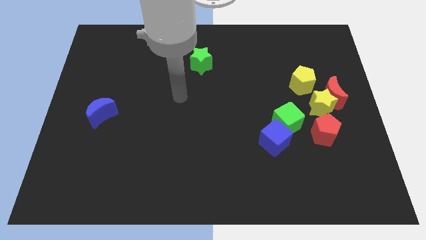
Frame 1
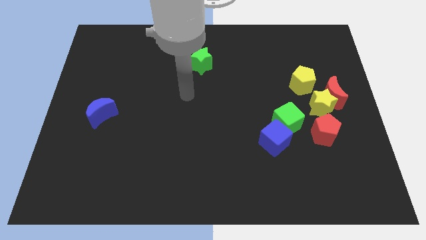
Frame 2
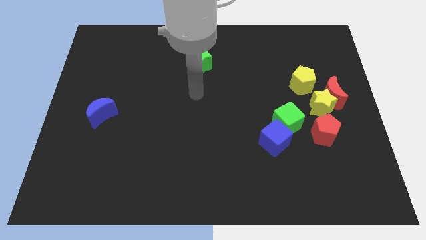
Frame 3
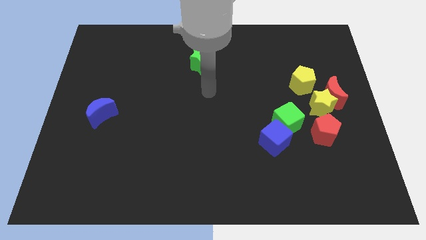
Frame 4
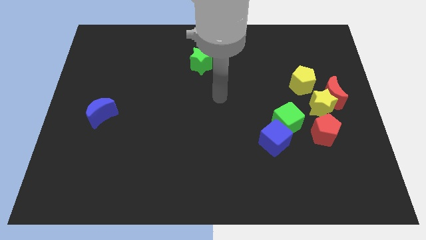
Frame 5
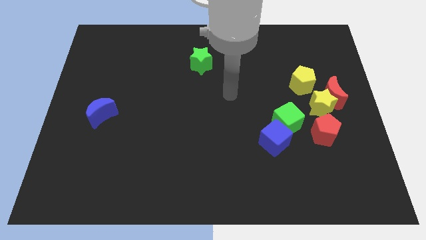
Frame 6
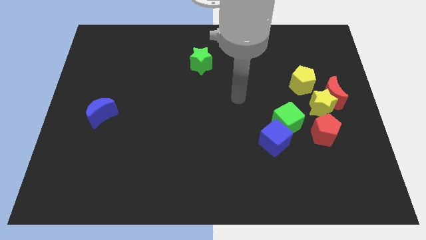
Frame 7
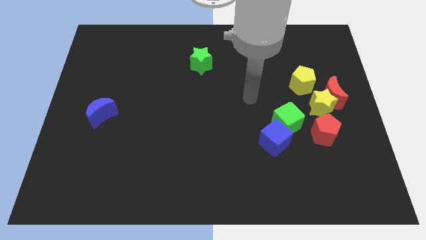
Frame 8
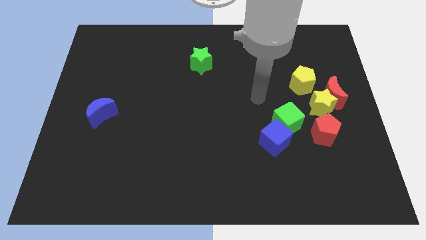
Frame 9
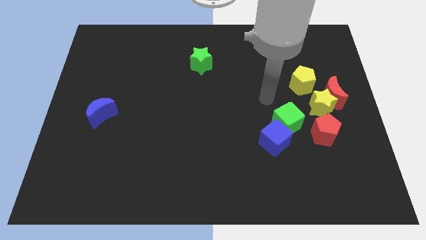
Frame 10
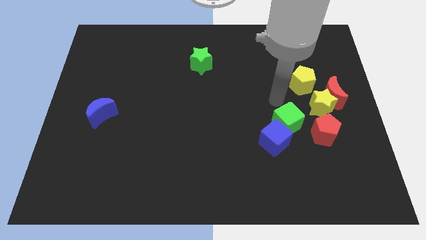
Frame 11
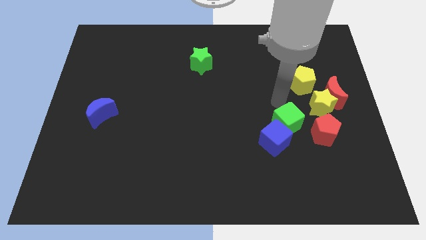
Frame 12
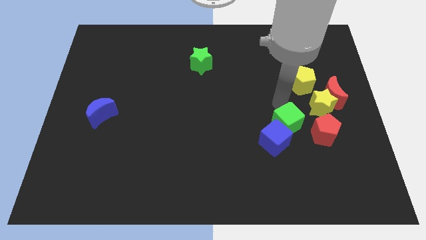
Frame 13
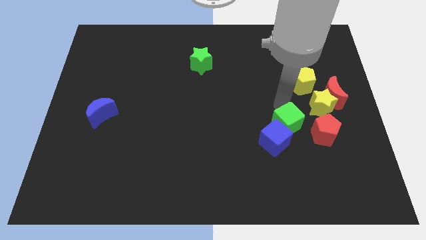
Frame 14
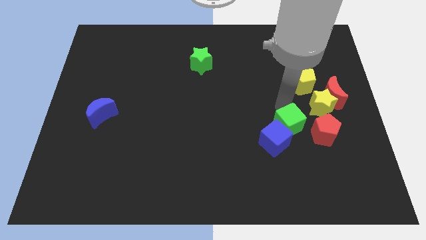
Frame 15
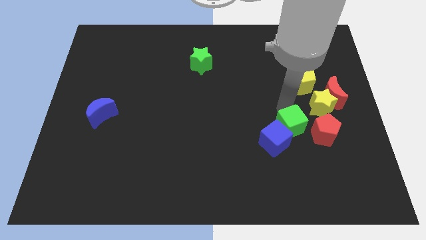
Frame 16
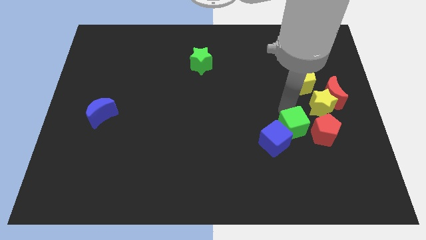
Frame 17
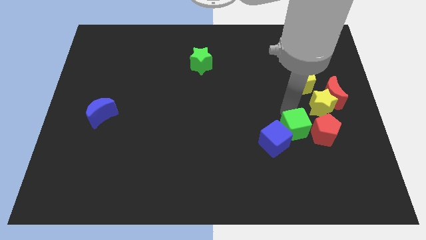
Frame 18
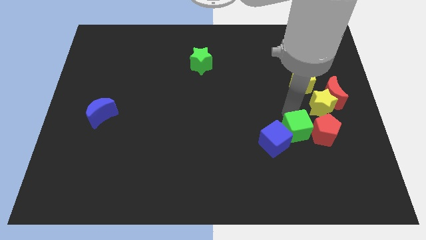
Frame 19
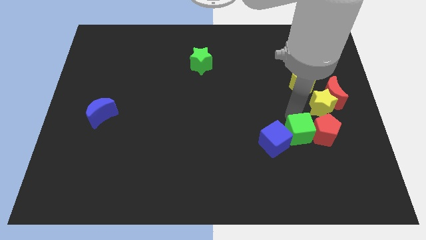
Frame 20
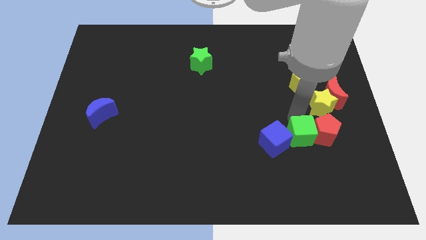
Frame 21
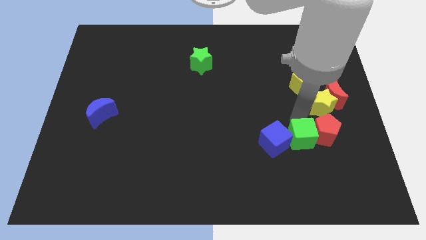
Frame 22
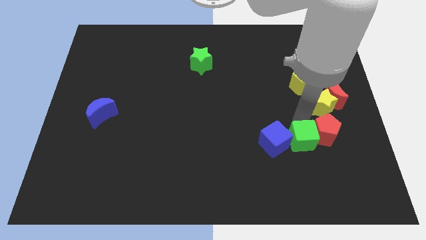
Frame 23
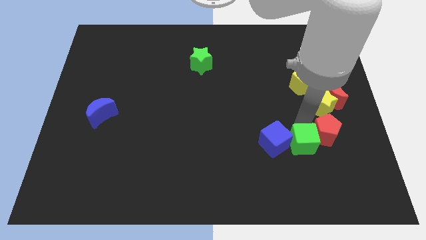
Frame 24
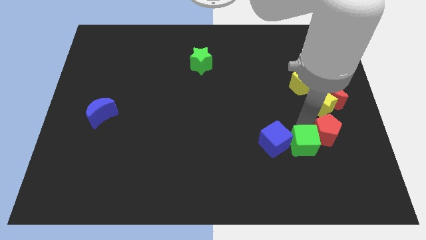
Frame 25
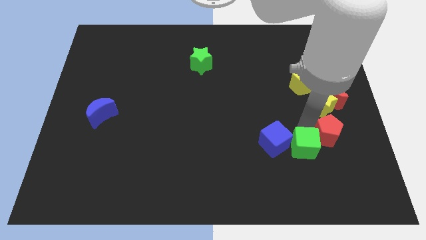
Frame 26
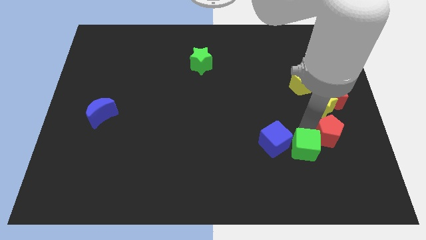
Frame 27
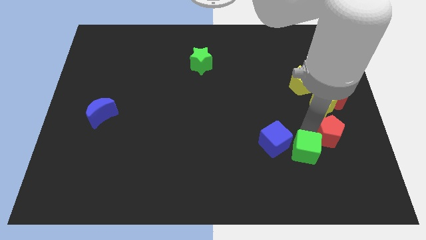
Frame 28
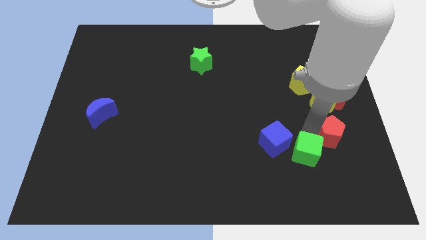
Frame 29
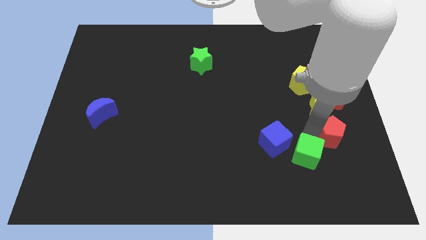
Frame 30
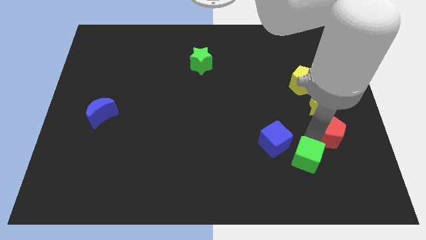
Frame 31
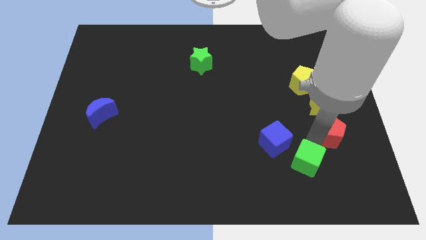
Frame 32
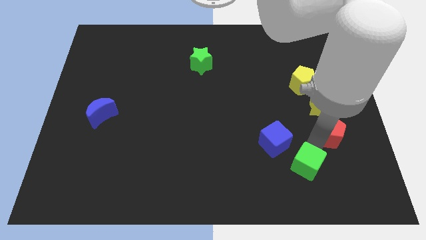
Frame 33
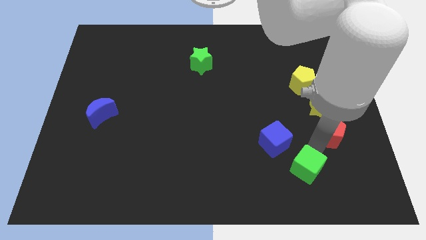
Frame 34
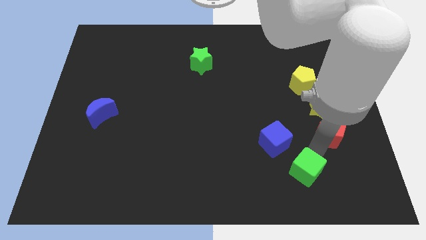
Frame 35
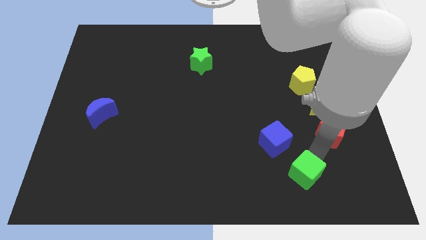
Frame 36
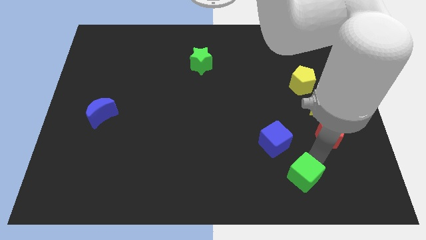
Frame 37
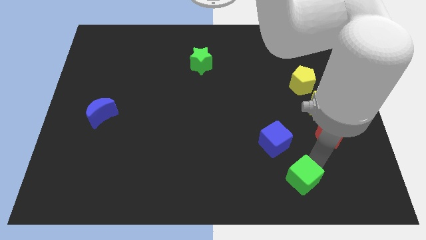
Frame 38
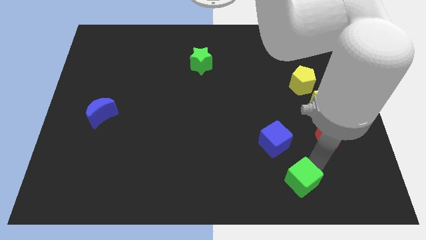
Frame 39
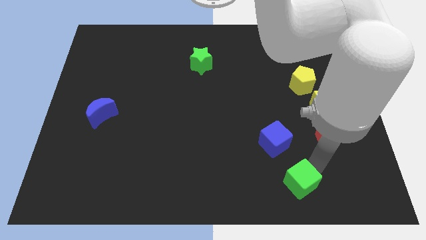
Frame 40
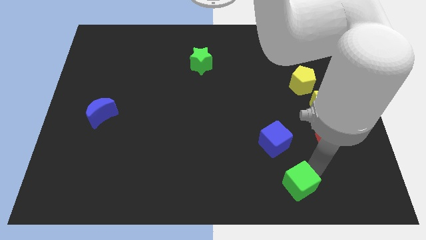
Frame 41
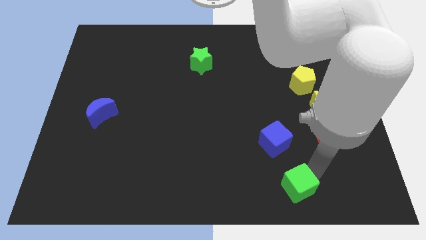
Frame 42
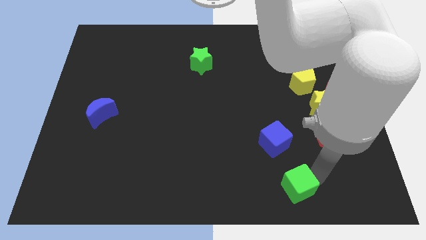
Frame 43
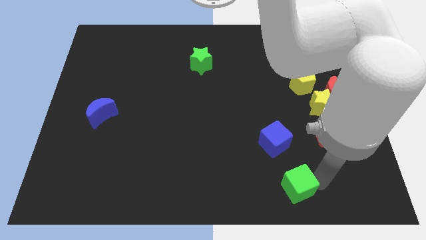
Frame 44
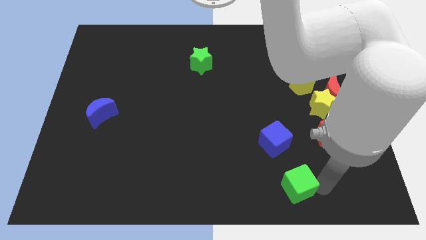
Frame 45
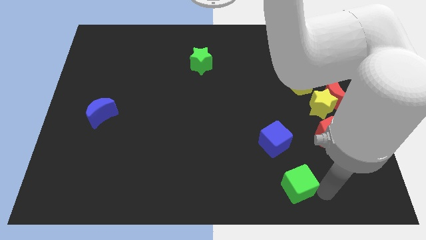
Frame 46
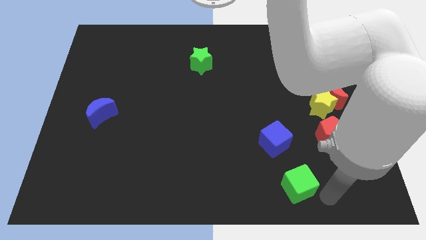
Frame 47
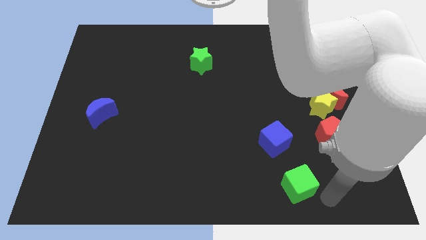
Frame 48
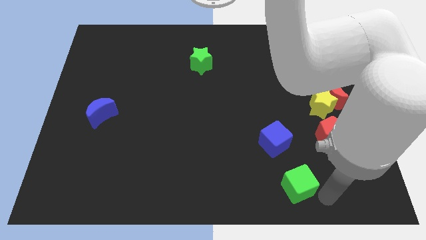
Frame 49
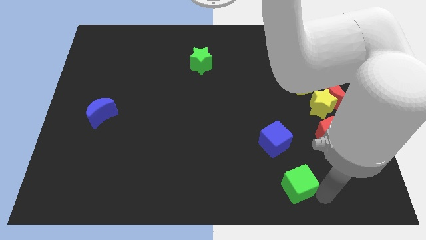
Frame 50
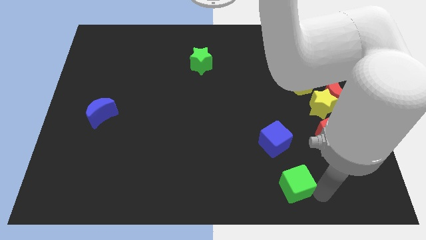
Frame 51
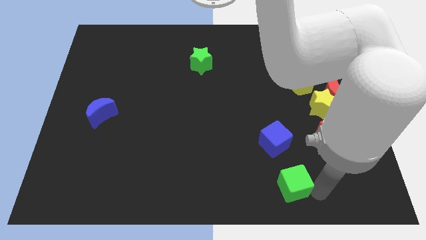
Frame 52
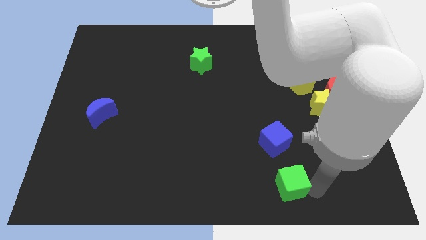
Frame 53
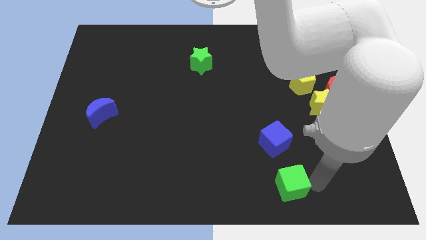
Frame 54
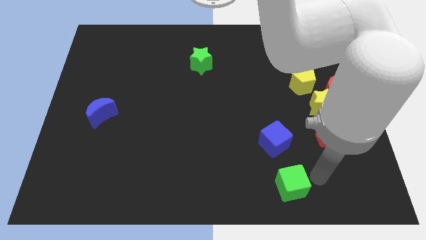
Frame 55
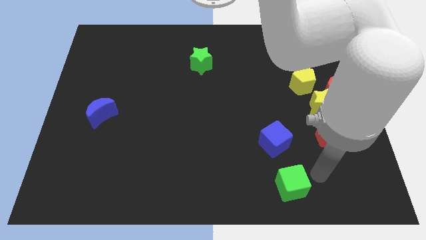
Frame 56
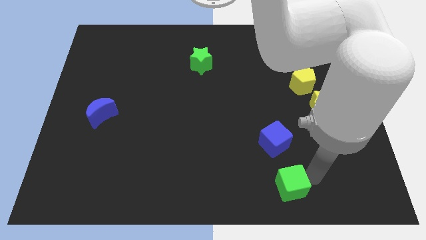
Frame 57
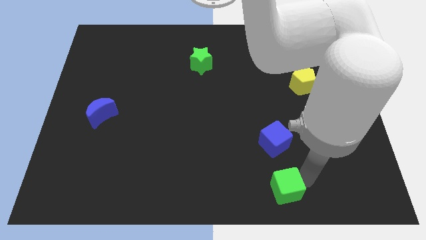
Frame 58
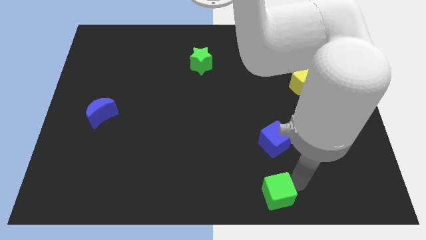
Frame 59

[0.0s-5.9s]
put the green cube to the bottom side

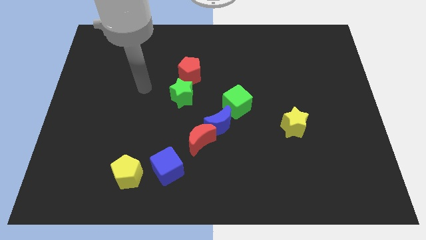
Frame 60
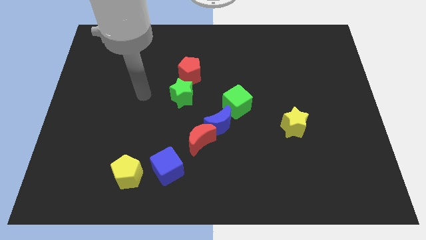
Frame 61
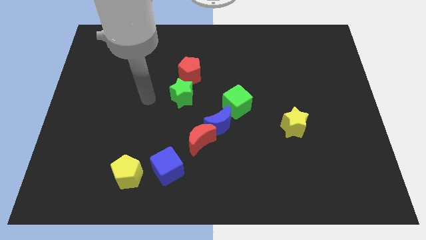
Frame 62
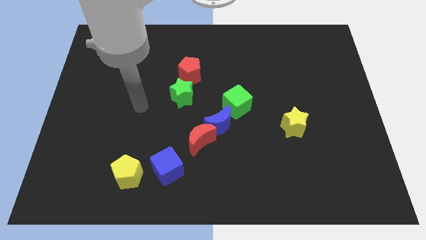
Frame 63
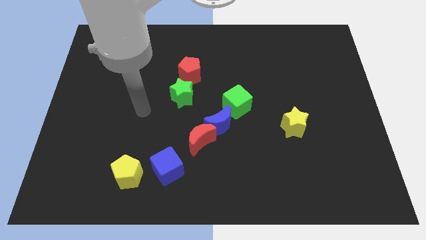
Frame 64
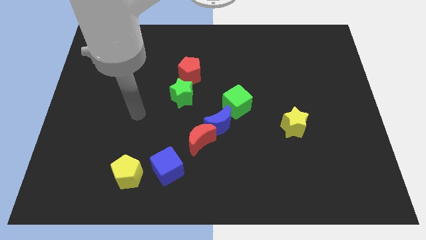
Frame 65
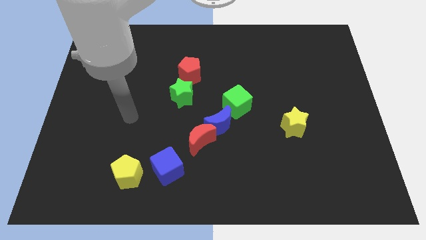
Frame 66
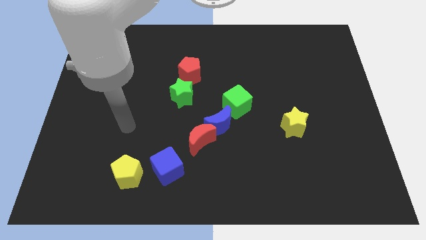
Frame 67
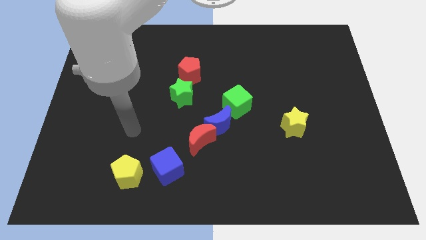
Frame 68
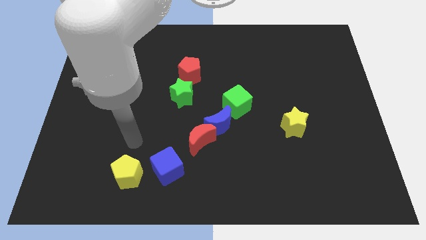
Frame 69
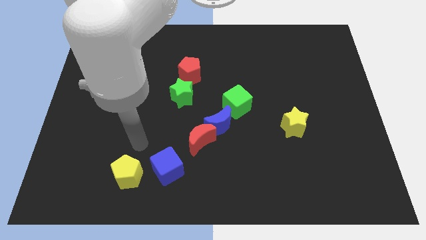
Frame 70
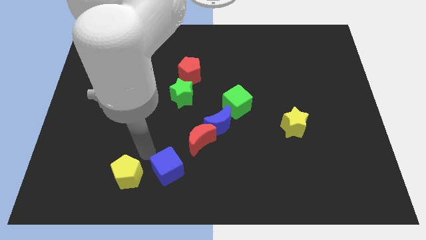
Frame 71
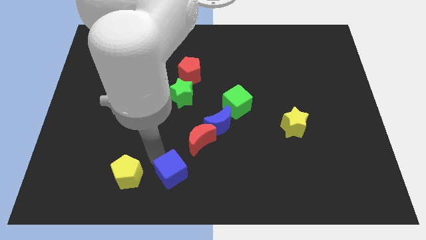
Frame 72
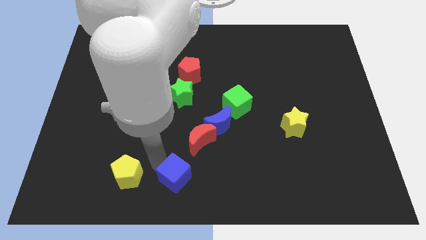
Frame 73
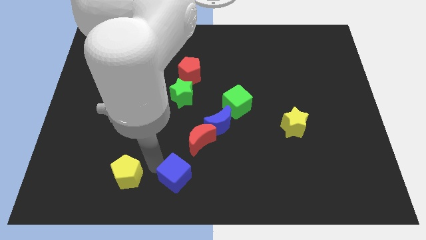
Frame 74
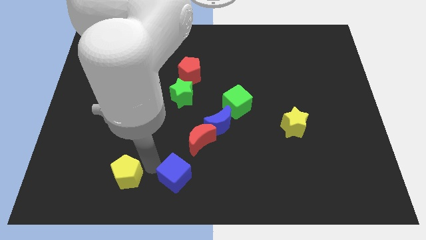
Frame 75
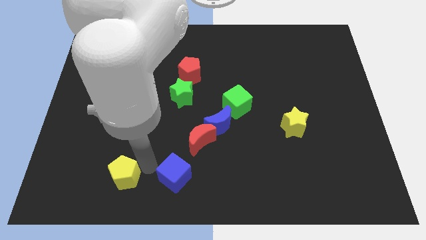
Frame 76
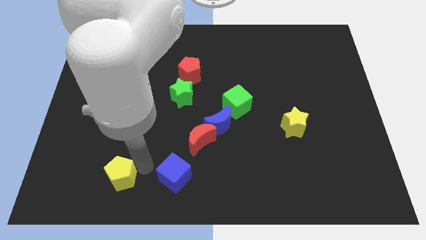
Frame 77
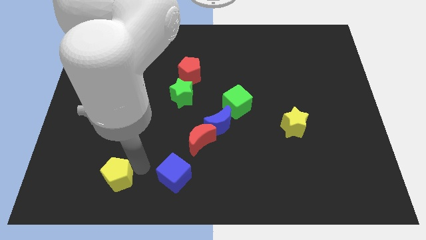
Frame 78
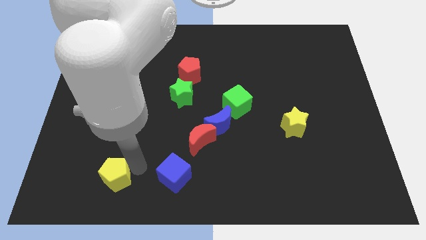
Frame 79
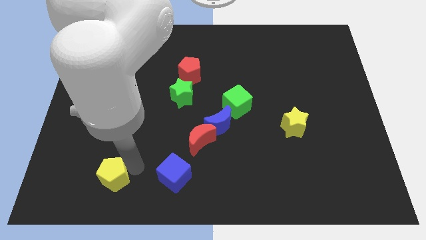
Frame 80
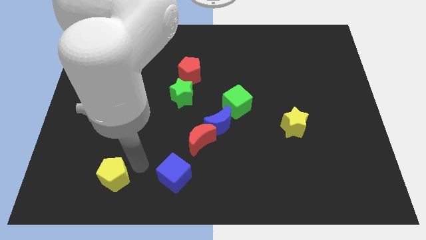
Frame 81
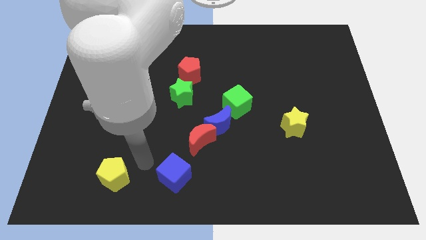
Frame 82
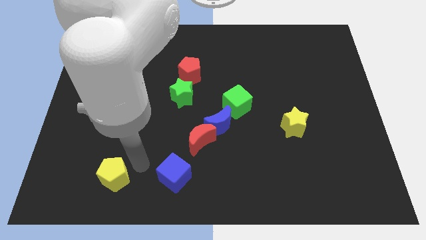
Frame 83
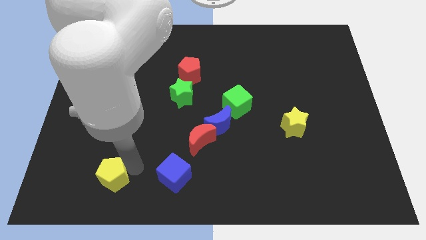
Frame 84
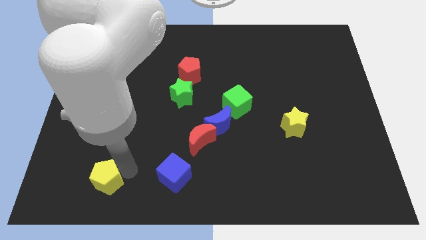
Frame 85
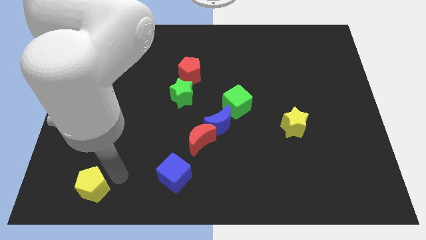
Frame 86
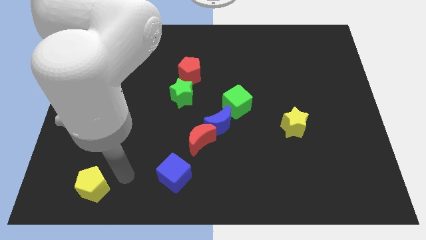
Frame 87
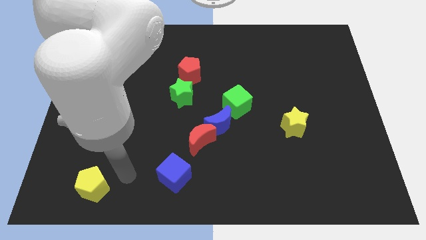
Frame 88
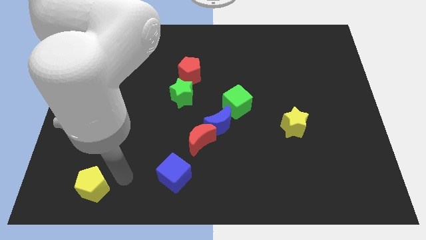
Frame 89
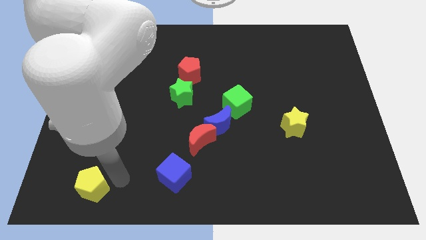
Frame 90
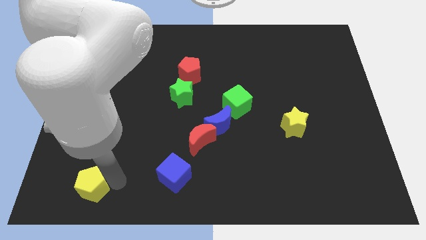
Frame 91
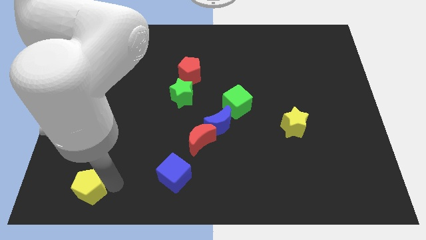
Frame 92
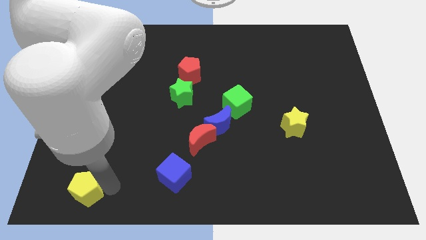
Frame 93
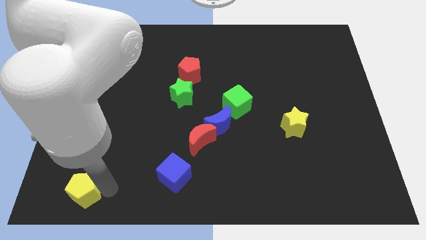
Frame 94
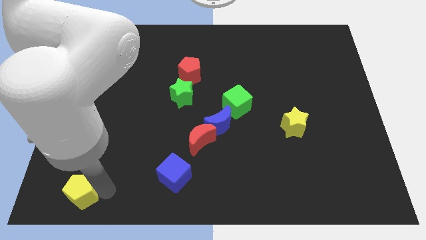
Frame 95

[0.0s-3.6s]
put the yellow pentagon to the bottom left of the board
